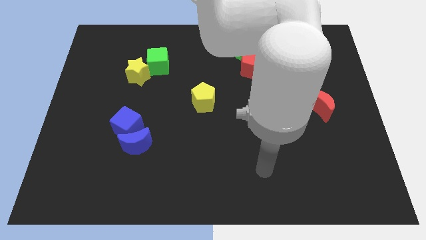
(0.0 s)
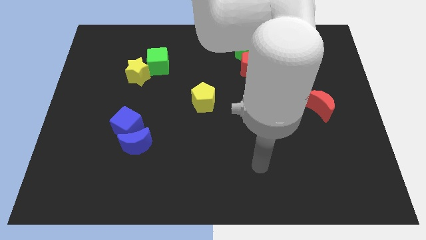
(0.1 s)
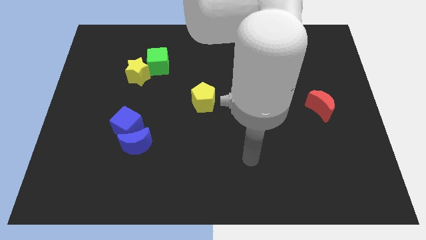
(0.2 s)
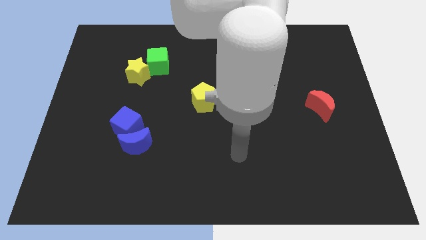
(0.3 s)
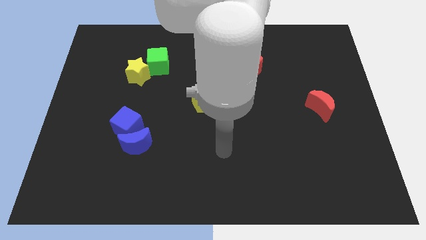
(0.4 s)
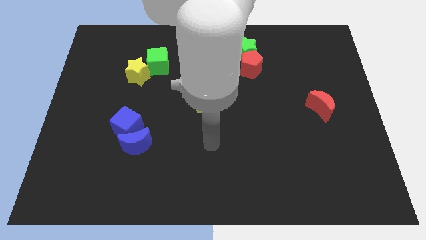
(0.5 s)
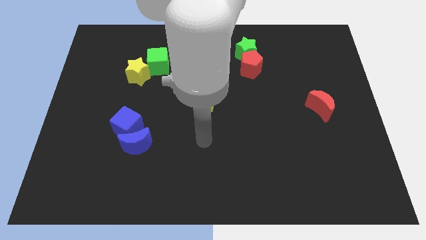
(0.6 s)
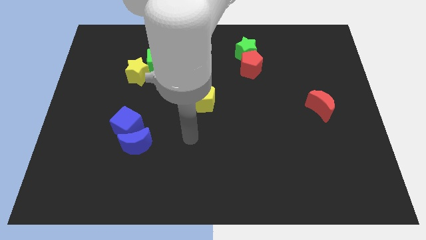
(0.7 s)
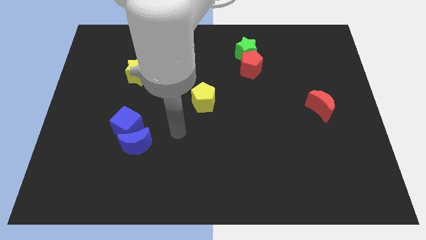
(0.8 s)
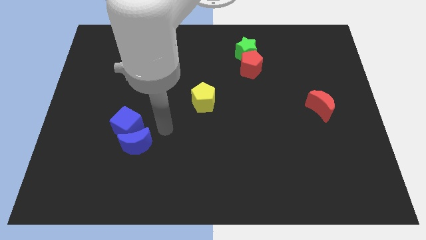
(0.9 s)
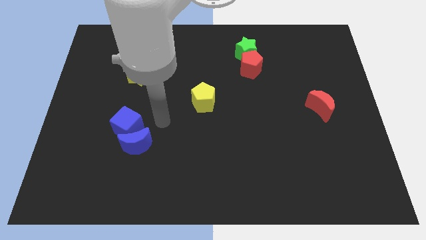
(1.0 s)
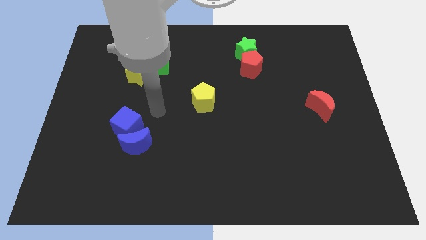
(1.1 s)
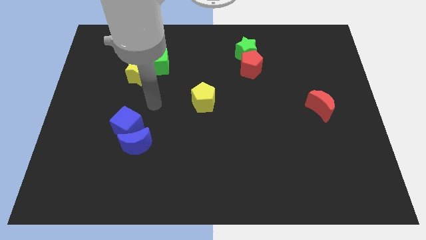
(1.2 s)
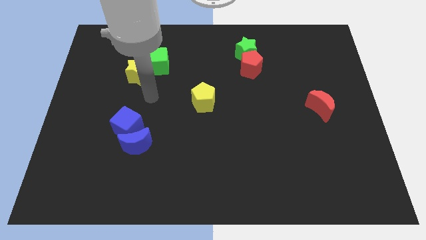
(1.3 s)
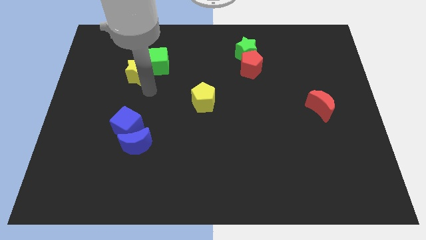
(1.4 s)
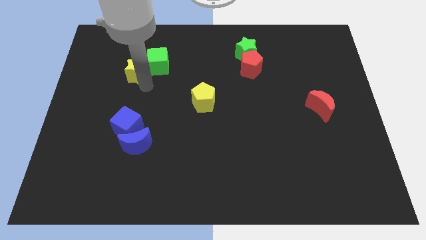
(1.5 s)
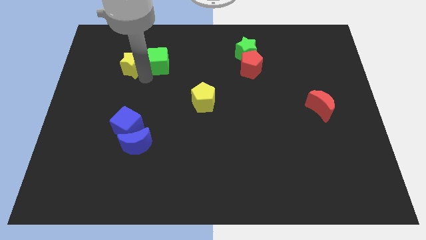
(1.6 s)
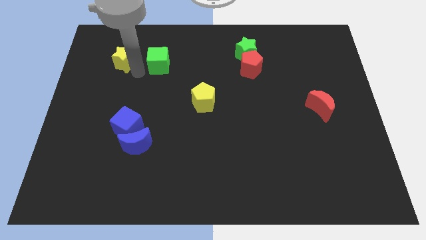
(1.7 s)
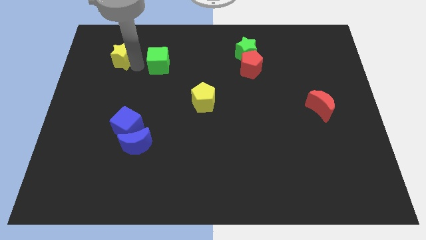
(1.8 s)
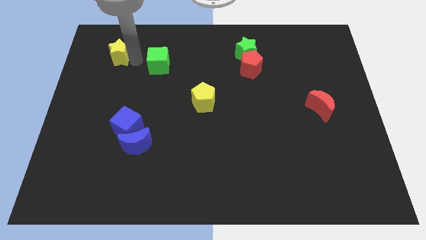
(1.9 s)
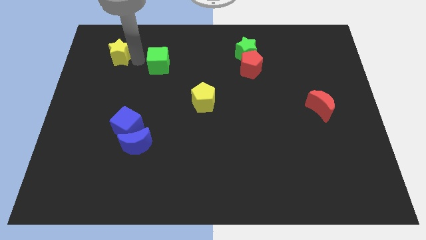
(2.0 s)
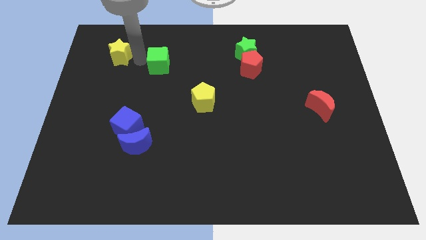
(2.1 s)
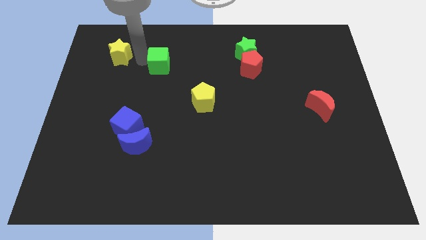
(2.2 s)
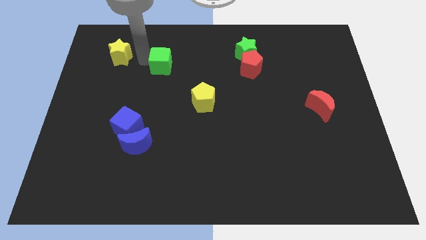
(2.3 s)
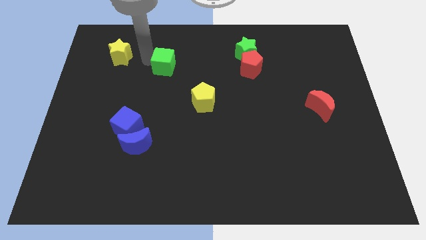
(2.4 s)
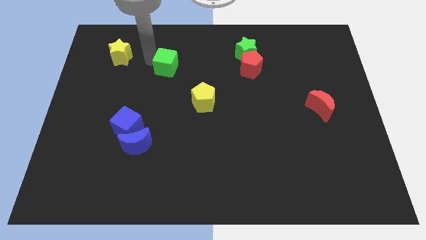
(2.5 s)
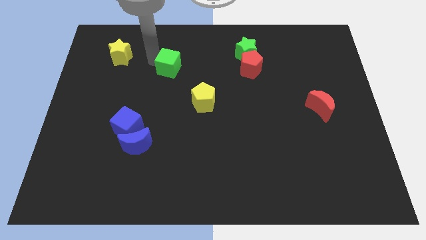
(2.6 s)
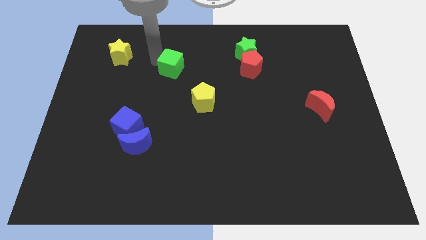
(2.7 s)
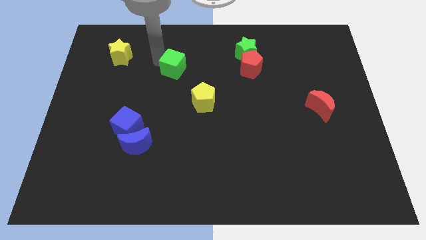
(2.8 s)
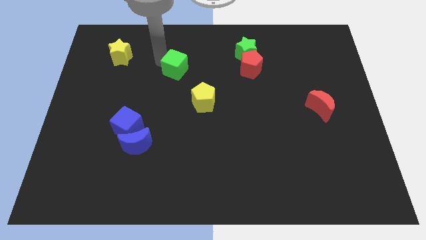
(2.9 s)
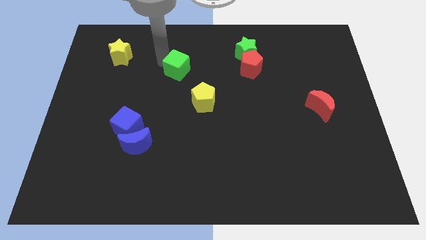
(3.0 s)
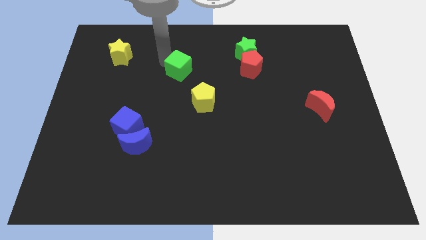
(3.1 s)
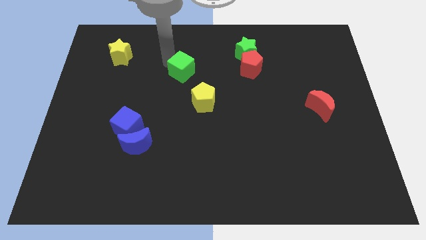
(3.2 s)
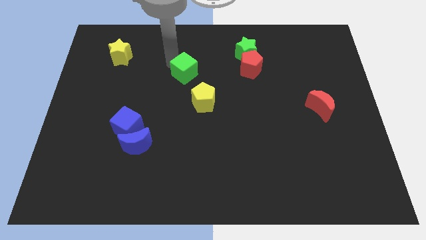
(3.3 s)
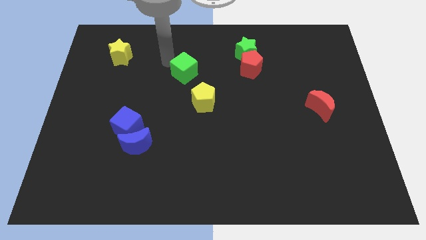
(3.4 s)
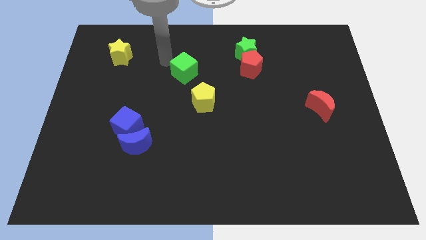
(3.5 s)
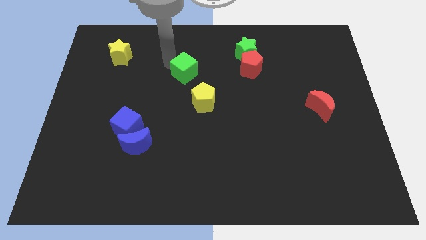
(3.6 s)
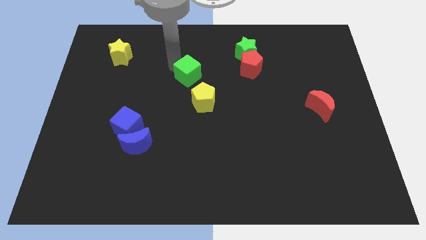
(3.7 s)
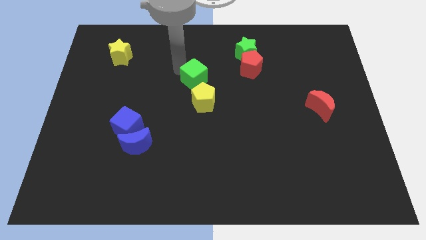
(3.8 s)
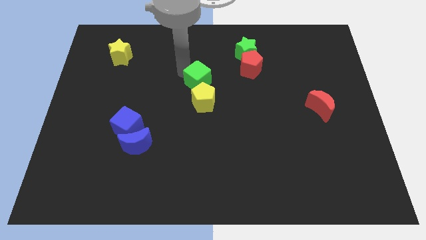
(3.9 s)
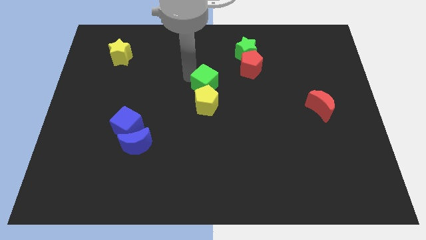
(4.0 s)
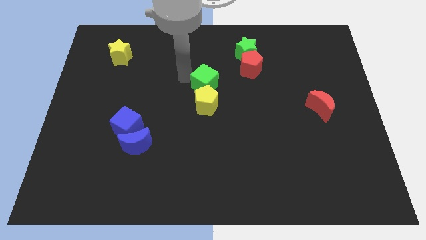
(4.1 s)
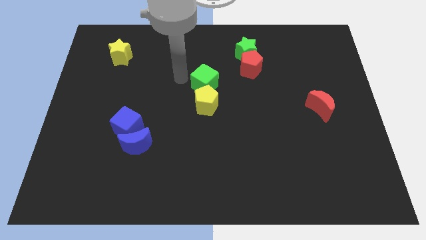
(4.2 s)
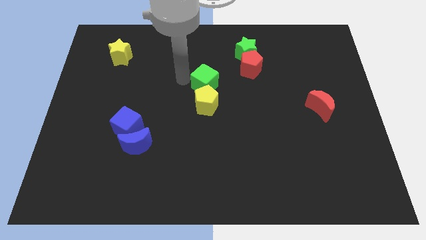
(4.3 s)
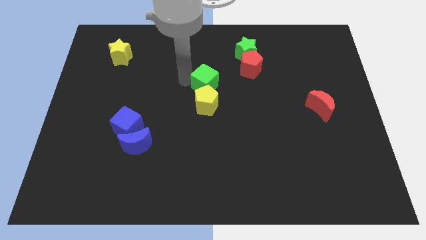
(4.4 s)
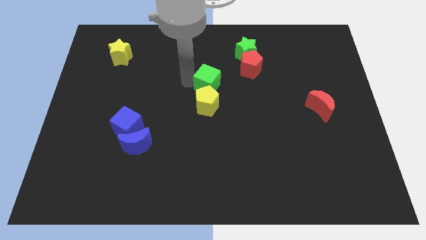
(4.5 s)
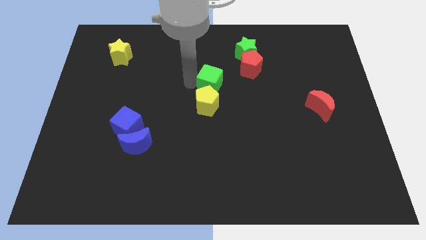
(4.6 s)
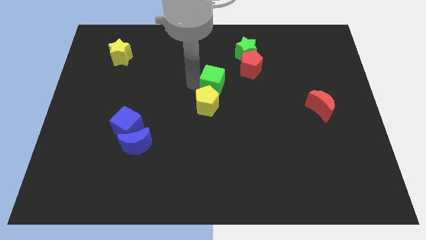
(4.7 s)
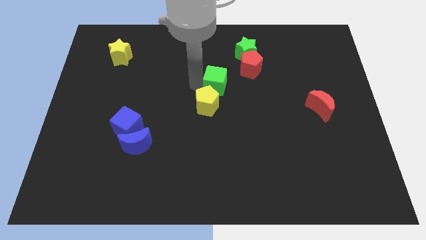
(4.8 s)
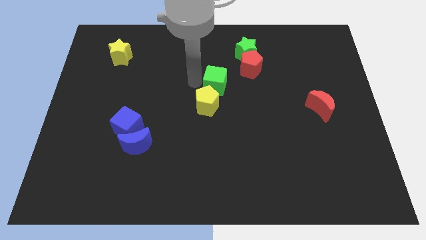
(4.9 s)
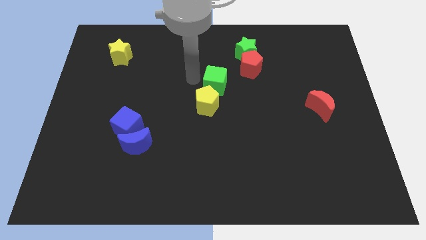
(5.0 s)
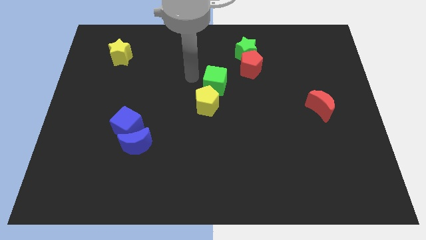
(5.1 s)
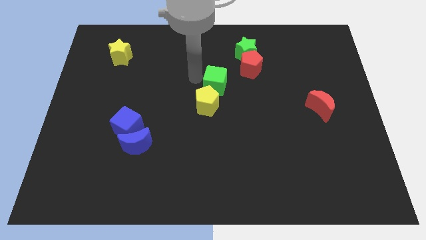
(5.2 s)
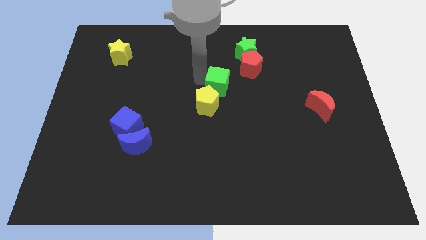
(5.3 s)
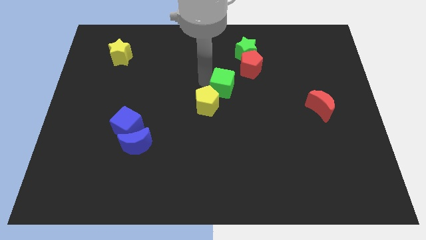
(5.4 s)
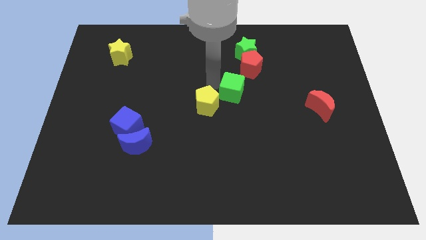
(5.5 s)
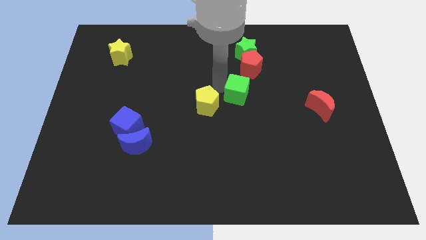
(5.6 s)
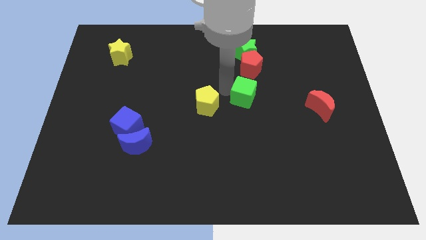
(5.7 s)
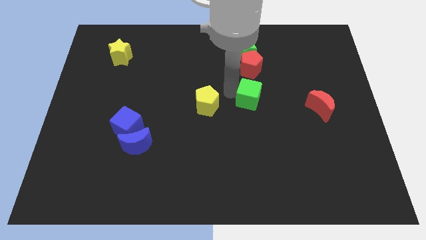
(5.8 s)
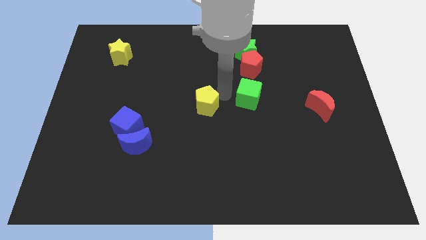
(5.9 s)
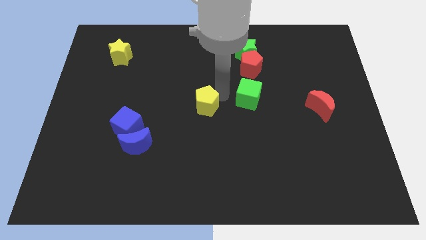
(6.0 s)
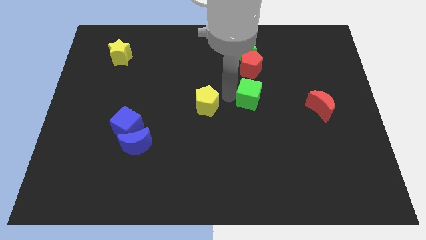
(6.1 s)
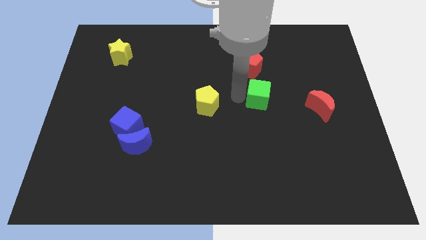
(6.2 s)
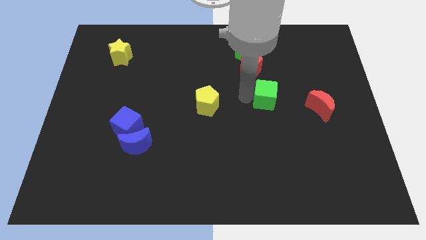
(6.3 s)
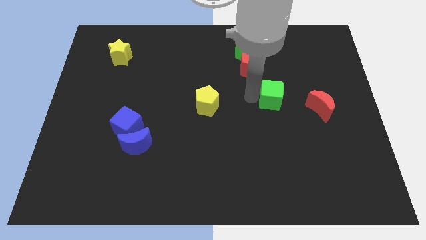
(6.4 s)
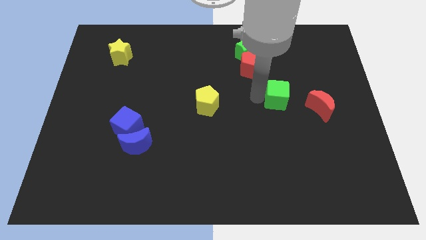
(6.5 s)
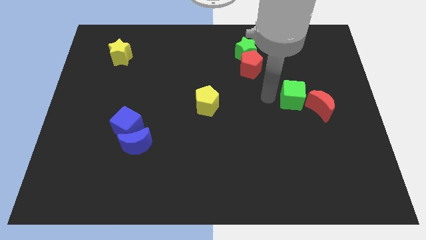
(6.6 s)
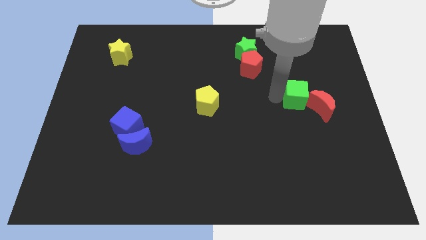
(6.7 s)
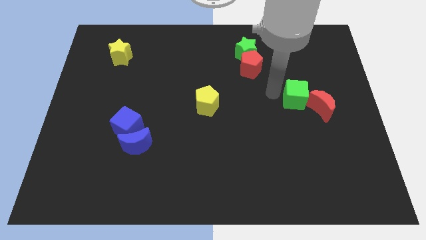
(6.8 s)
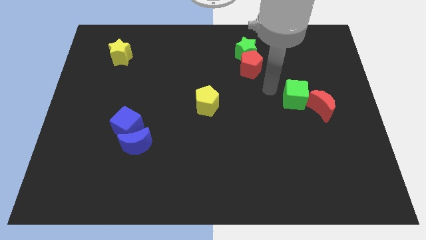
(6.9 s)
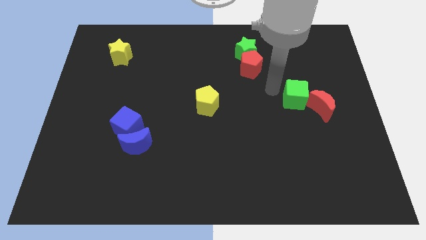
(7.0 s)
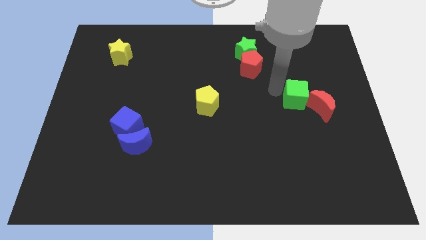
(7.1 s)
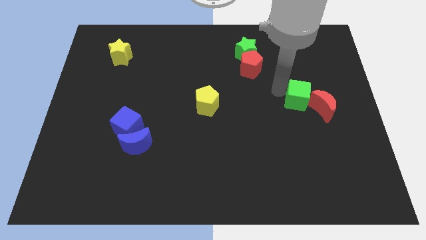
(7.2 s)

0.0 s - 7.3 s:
slide the green cube to the red moon

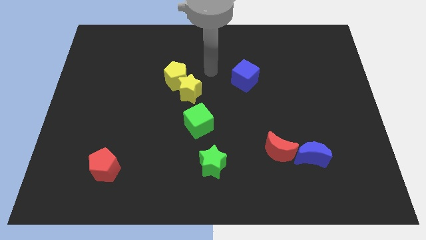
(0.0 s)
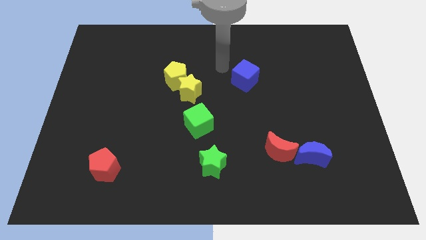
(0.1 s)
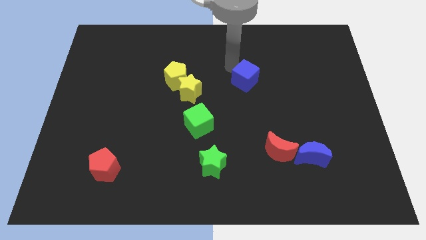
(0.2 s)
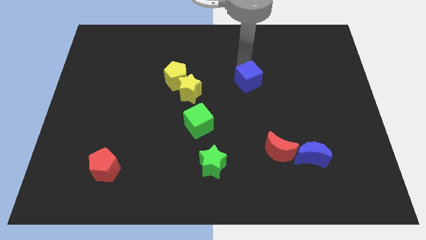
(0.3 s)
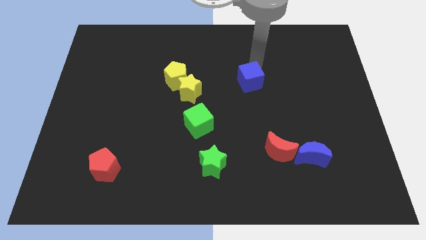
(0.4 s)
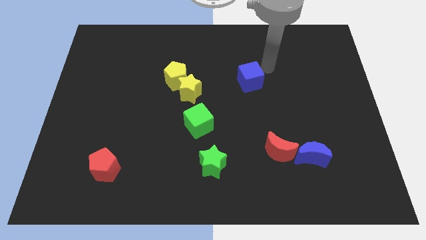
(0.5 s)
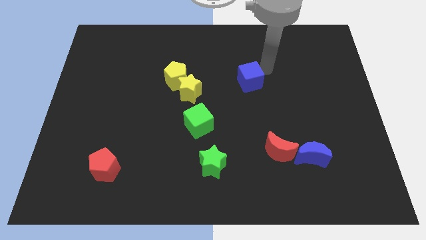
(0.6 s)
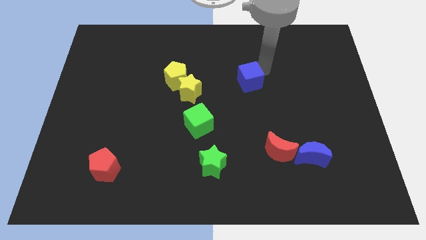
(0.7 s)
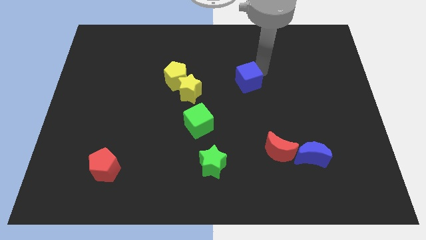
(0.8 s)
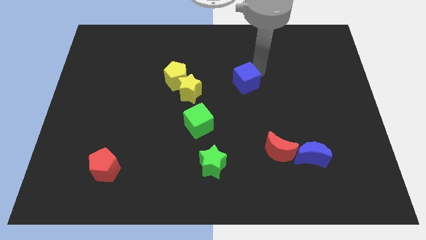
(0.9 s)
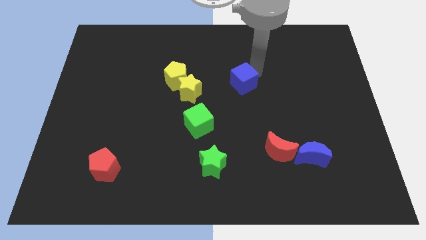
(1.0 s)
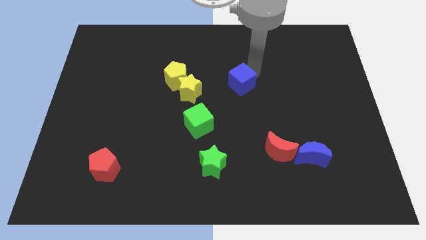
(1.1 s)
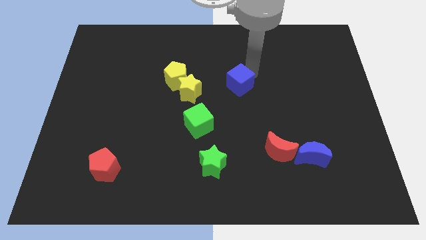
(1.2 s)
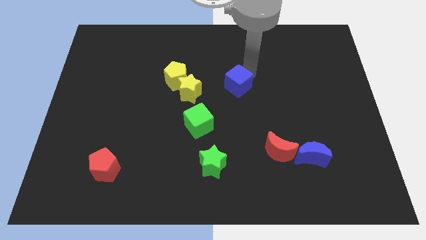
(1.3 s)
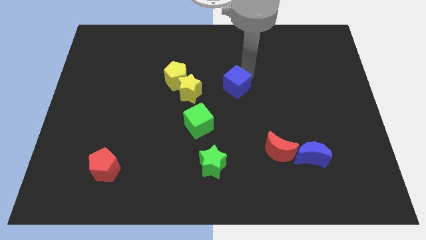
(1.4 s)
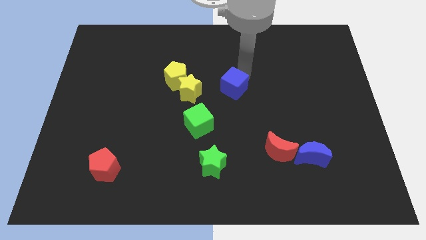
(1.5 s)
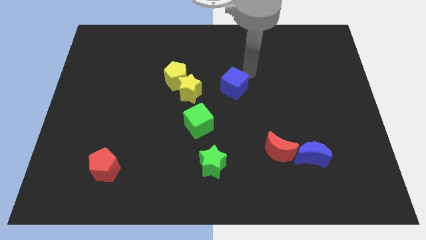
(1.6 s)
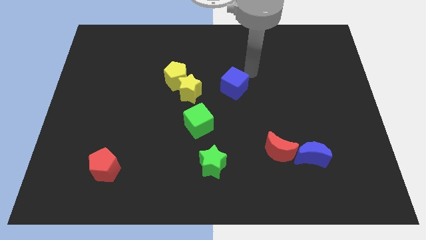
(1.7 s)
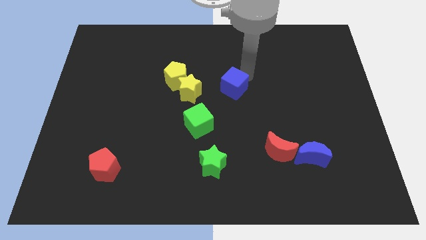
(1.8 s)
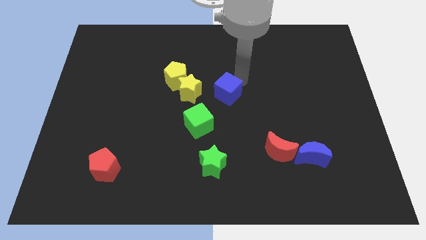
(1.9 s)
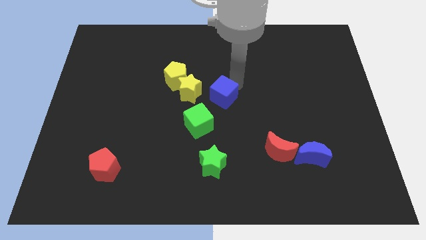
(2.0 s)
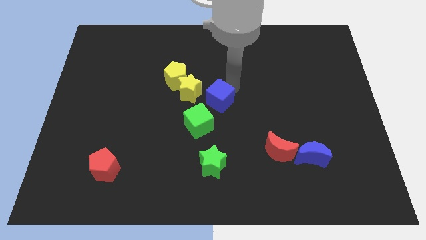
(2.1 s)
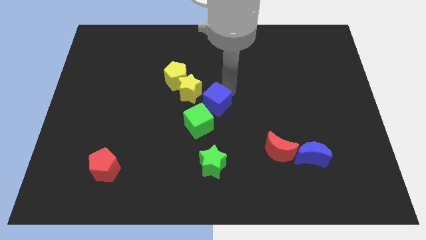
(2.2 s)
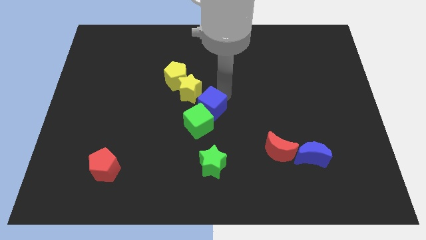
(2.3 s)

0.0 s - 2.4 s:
push the blue cube towards the green cube
